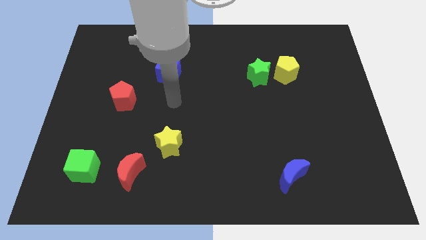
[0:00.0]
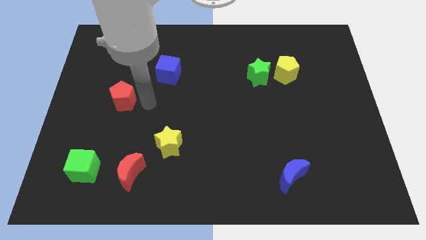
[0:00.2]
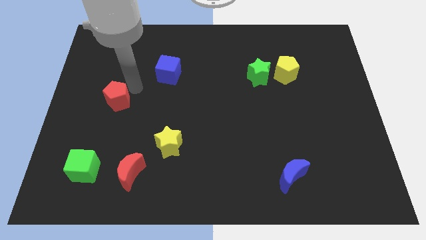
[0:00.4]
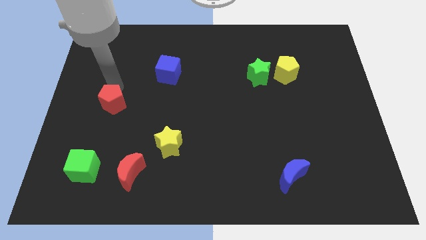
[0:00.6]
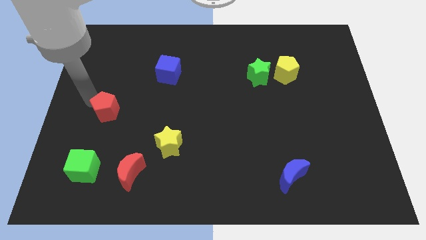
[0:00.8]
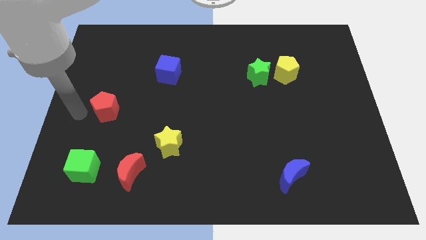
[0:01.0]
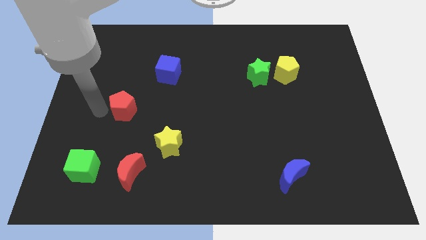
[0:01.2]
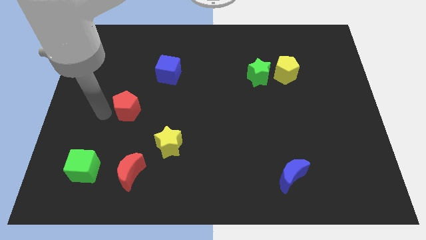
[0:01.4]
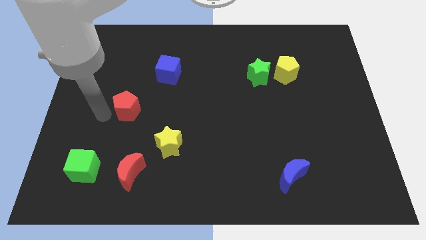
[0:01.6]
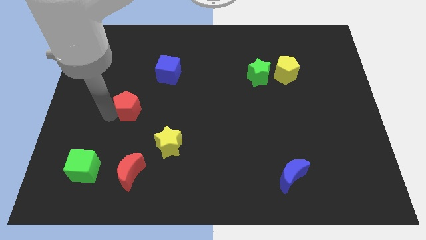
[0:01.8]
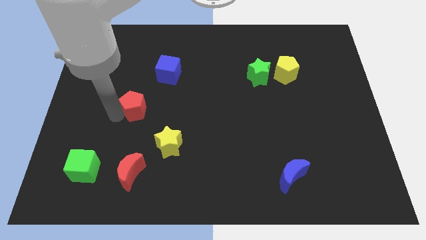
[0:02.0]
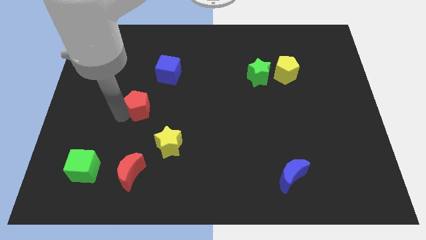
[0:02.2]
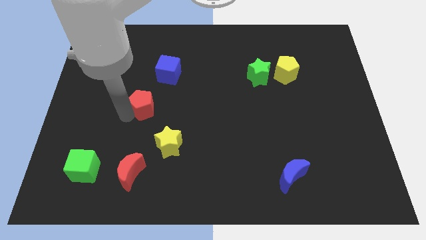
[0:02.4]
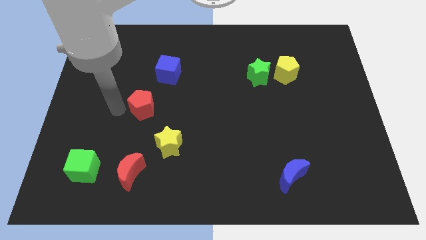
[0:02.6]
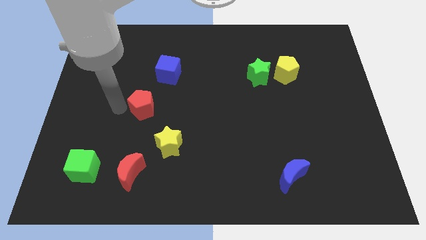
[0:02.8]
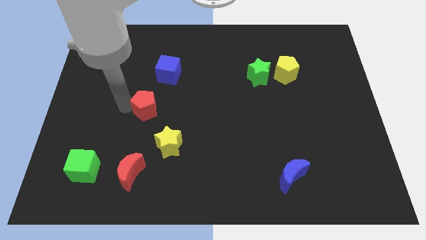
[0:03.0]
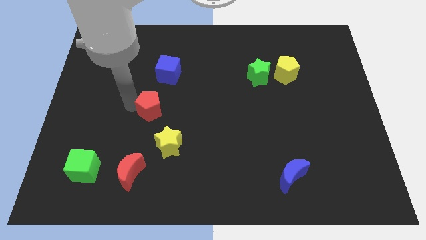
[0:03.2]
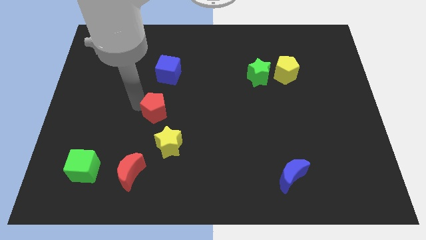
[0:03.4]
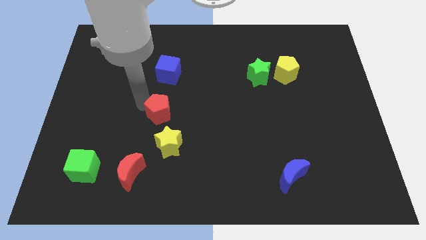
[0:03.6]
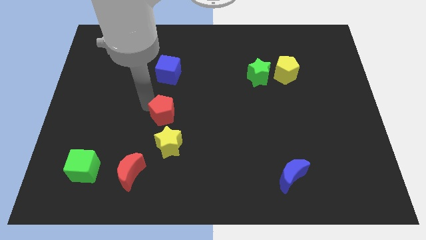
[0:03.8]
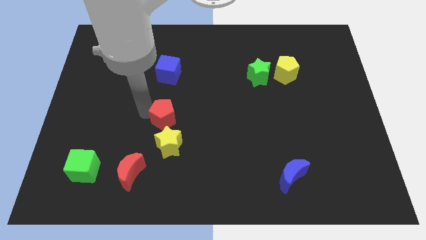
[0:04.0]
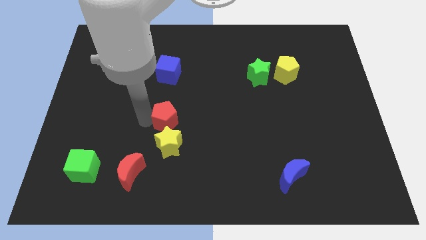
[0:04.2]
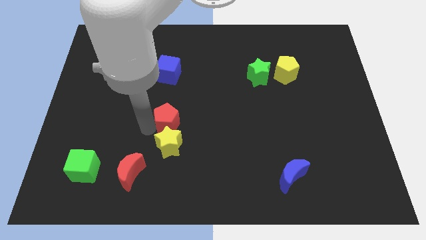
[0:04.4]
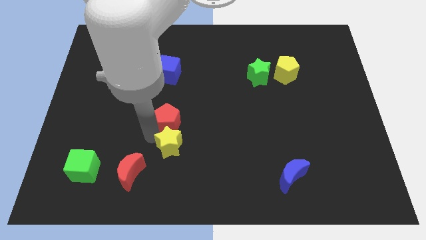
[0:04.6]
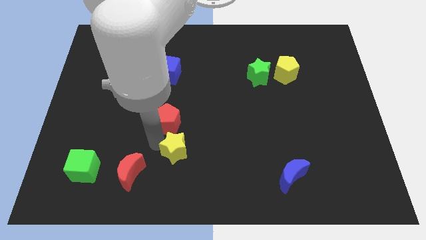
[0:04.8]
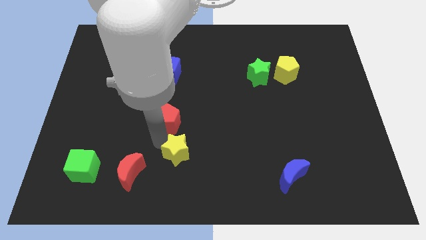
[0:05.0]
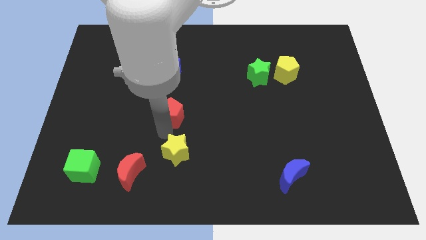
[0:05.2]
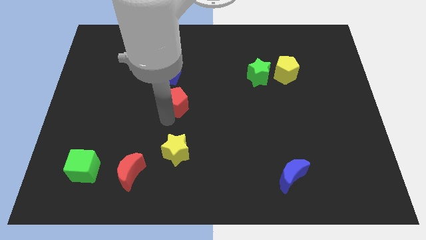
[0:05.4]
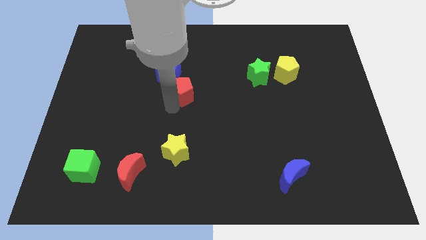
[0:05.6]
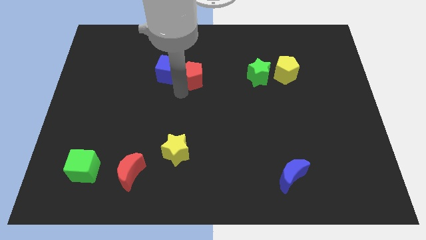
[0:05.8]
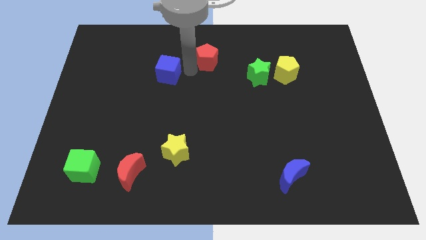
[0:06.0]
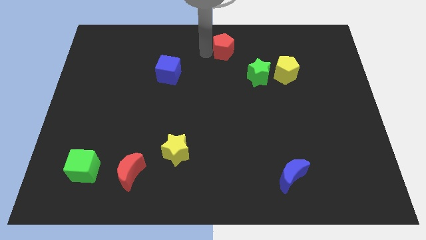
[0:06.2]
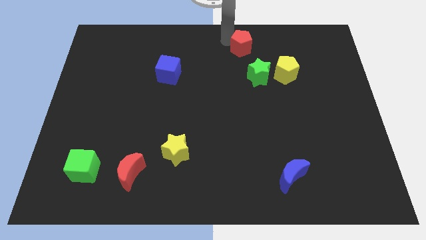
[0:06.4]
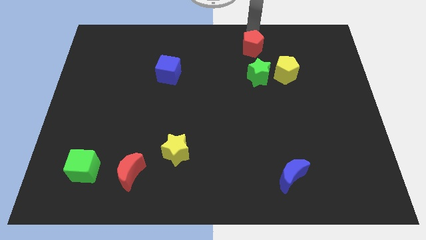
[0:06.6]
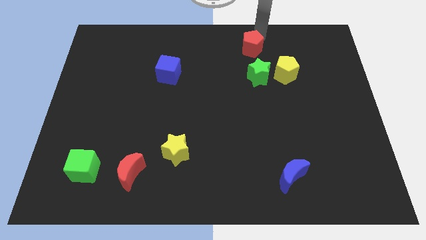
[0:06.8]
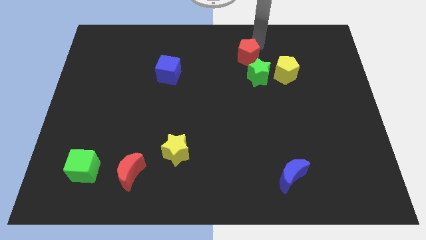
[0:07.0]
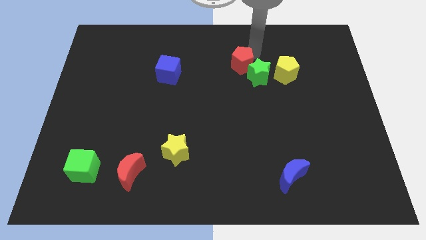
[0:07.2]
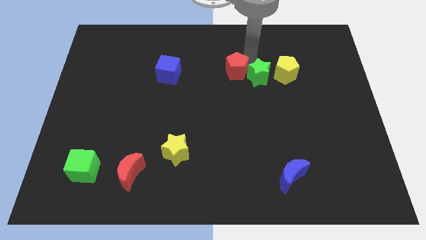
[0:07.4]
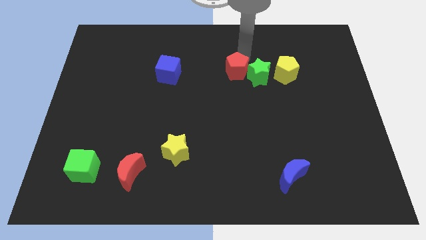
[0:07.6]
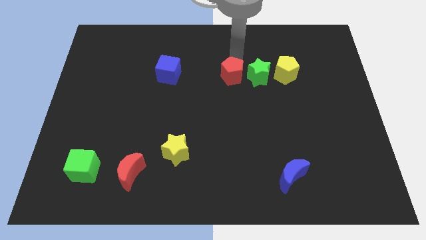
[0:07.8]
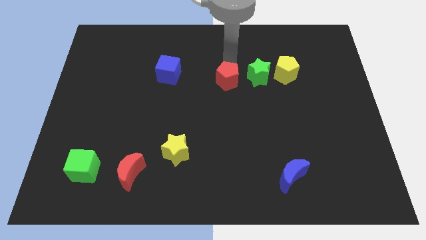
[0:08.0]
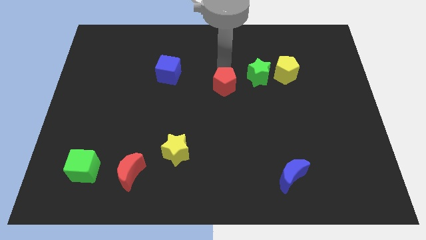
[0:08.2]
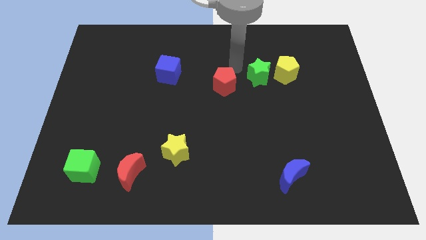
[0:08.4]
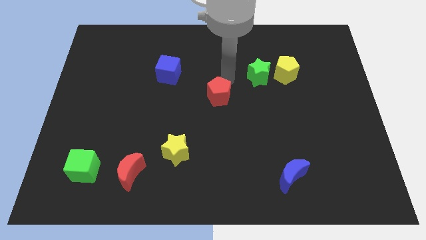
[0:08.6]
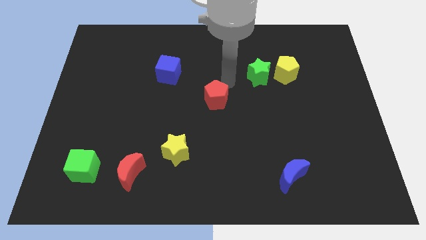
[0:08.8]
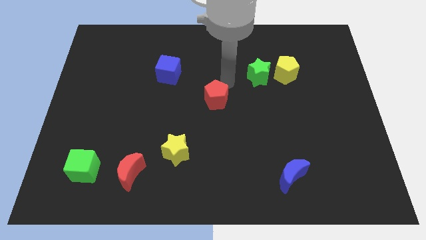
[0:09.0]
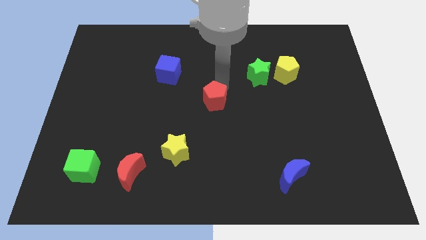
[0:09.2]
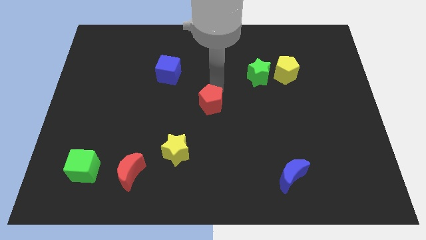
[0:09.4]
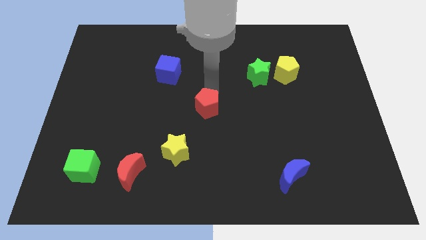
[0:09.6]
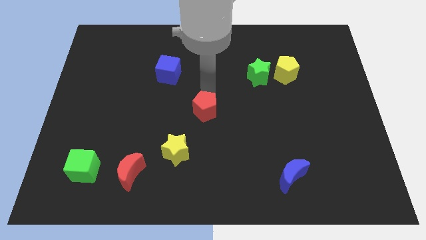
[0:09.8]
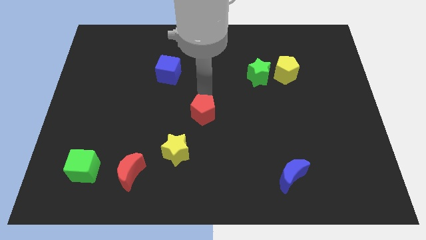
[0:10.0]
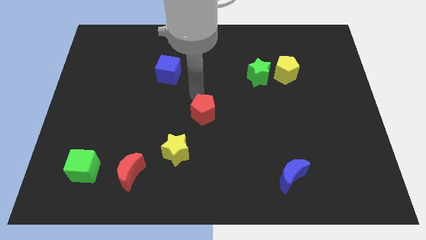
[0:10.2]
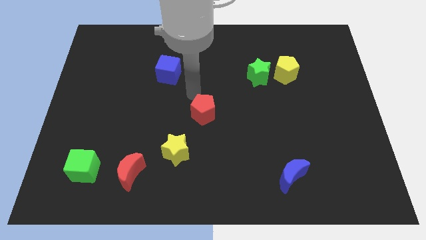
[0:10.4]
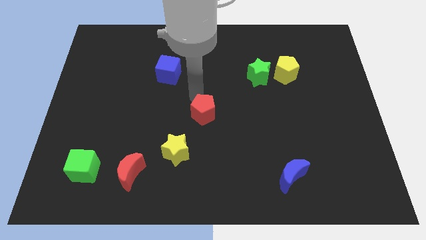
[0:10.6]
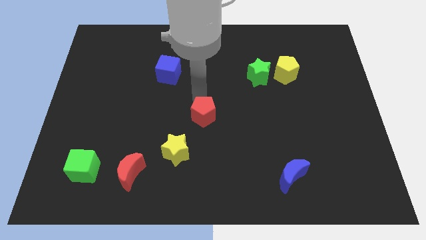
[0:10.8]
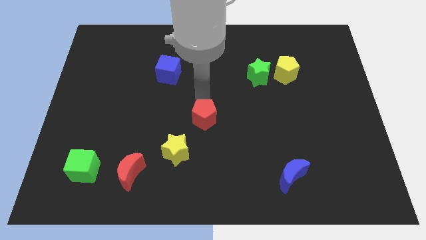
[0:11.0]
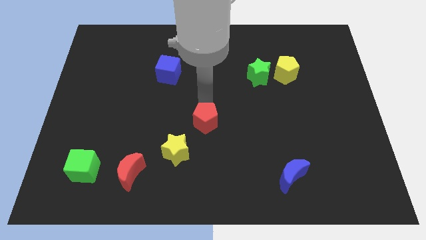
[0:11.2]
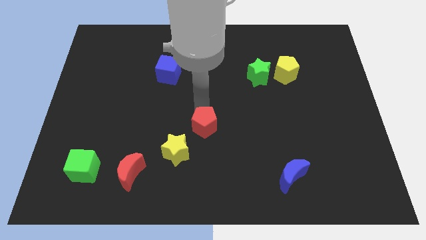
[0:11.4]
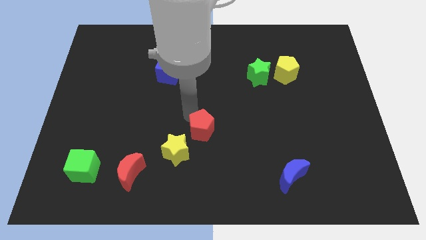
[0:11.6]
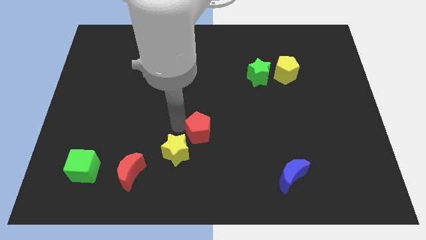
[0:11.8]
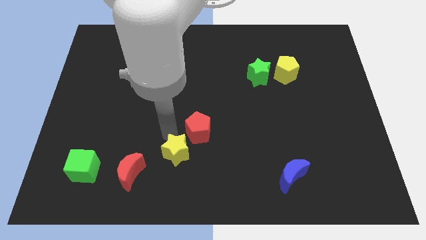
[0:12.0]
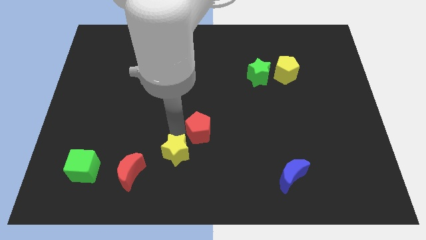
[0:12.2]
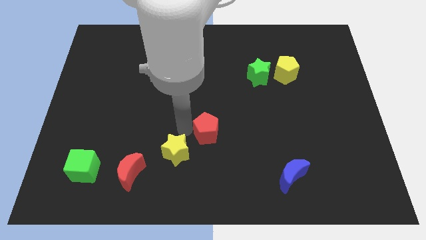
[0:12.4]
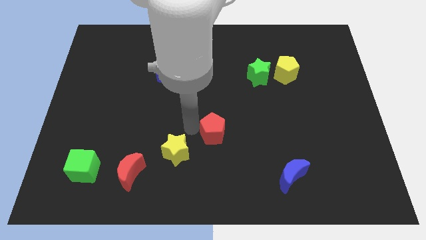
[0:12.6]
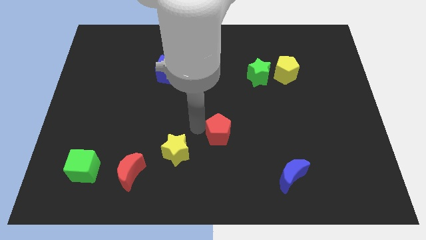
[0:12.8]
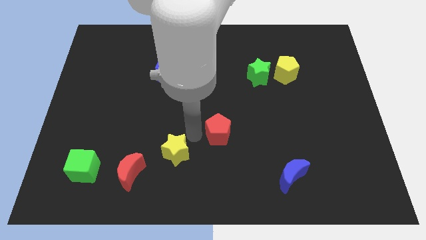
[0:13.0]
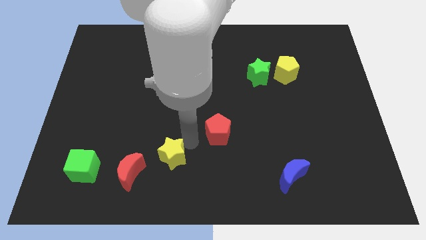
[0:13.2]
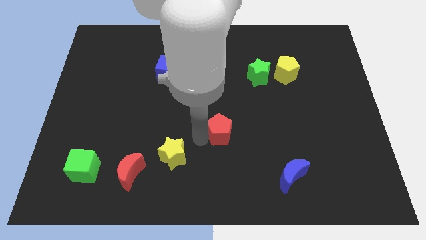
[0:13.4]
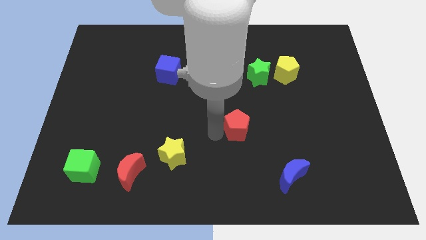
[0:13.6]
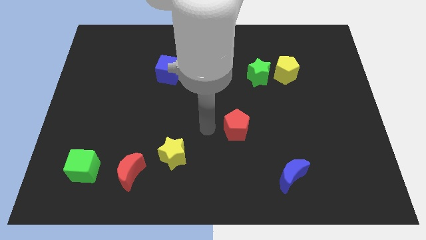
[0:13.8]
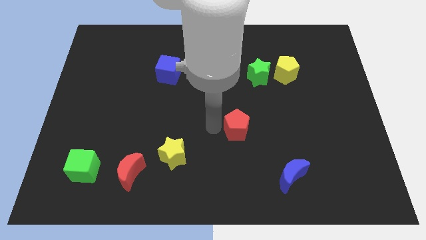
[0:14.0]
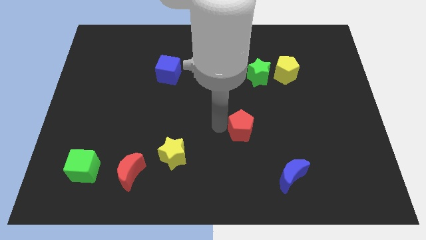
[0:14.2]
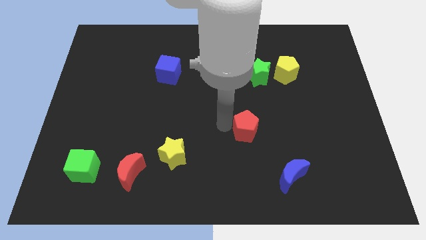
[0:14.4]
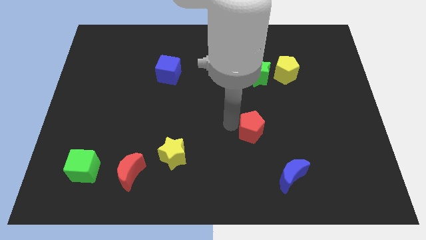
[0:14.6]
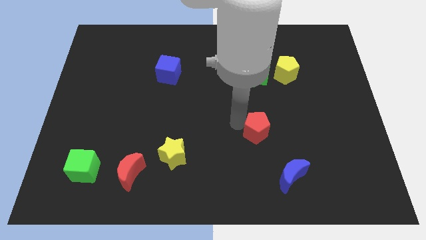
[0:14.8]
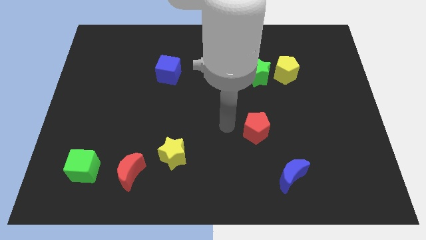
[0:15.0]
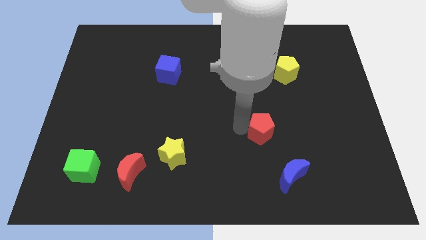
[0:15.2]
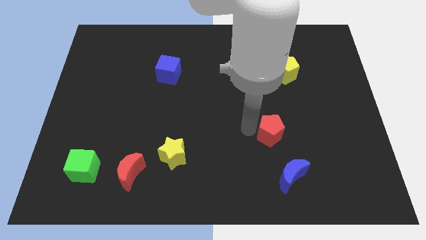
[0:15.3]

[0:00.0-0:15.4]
push the red pentagon above the blue moon
